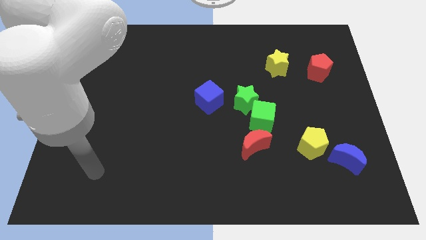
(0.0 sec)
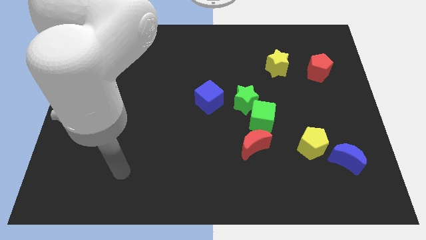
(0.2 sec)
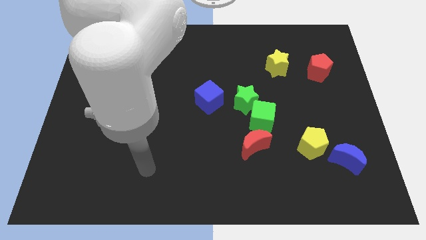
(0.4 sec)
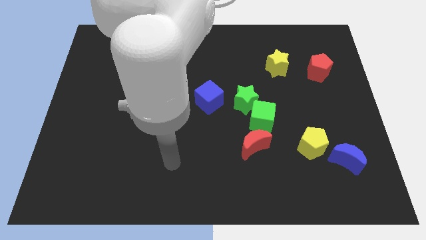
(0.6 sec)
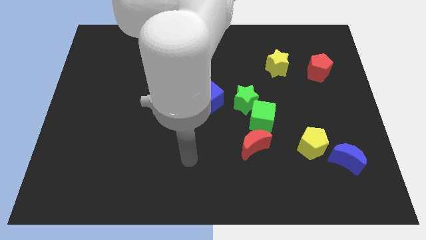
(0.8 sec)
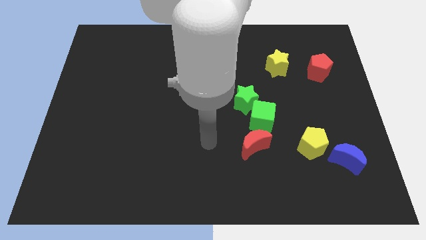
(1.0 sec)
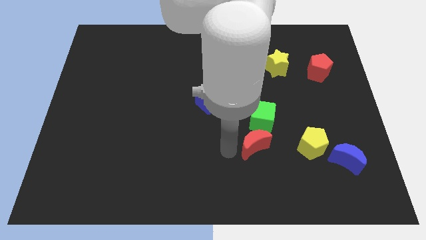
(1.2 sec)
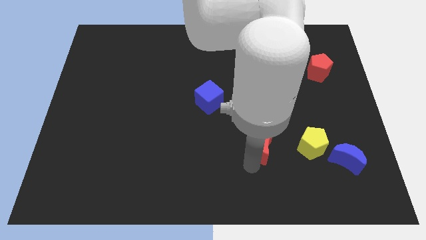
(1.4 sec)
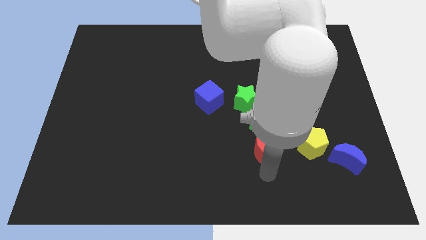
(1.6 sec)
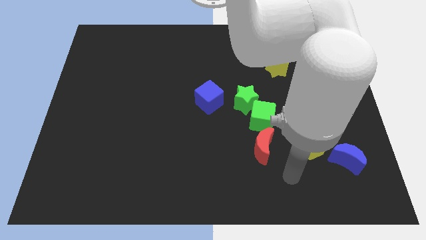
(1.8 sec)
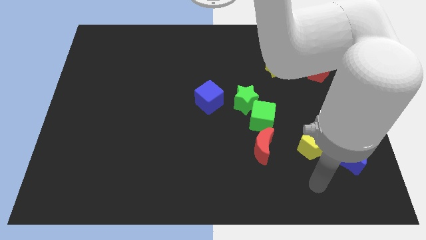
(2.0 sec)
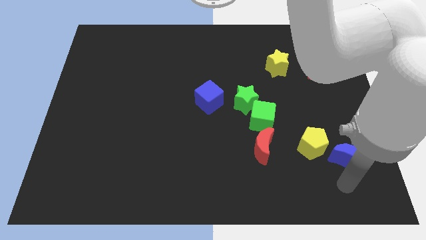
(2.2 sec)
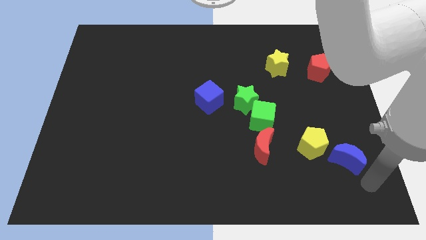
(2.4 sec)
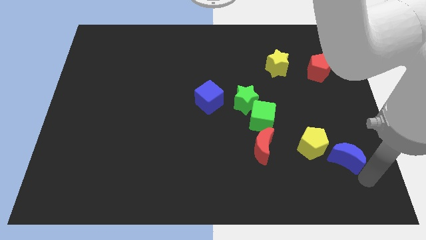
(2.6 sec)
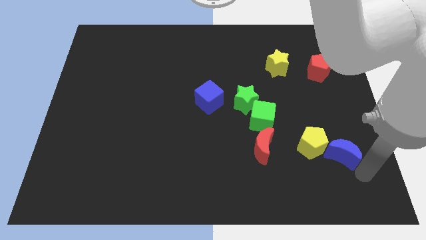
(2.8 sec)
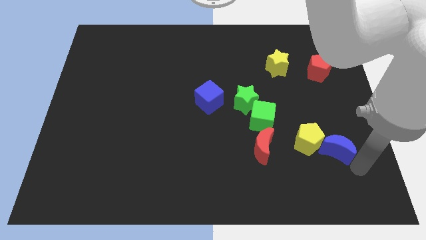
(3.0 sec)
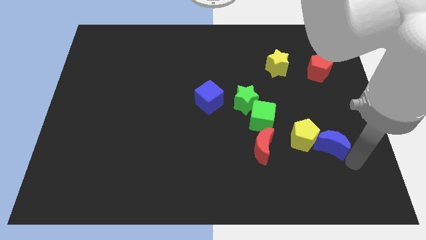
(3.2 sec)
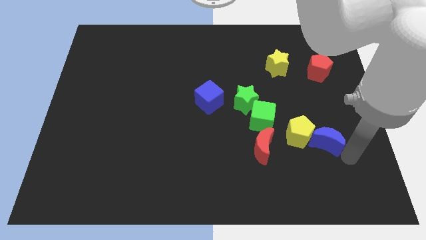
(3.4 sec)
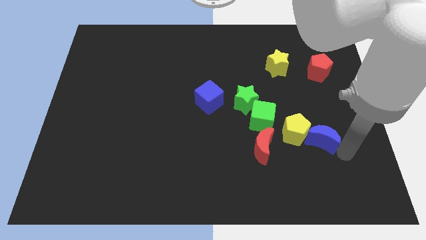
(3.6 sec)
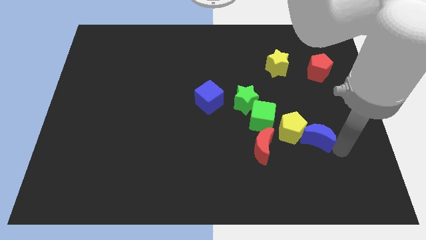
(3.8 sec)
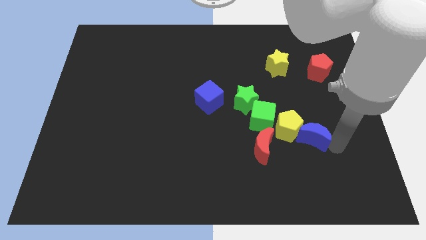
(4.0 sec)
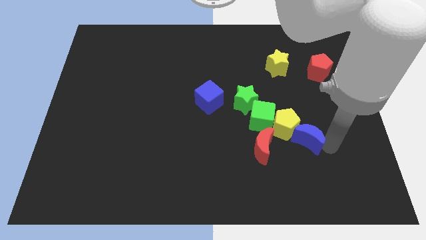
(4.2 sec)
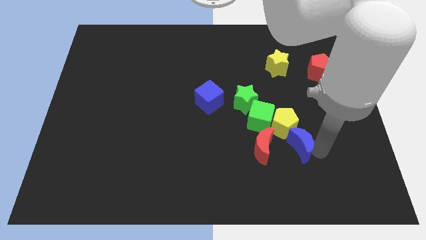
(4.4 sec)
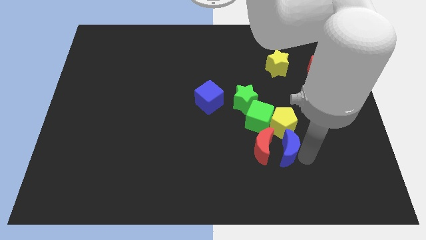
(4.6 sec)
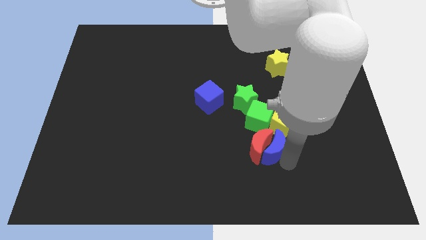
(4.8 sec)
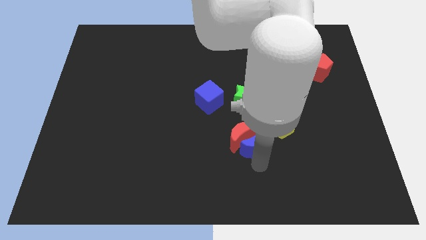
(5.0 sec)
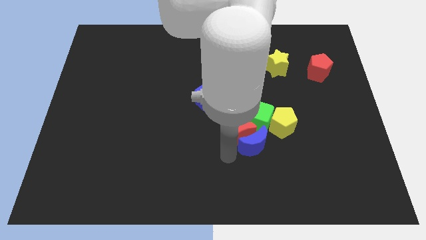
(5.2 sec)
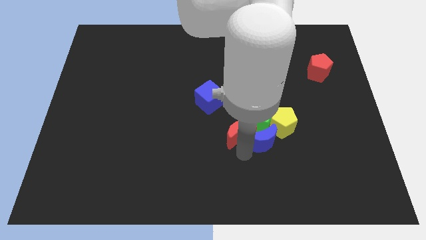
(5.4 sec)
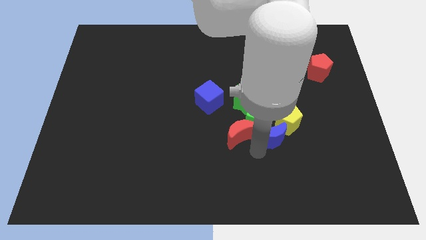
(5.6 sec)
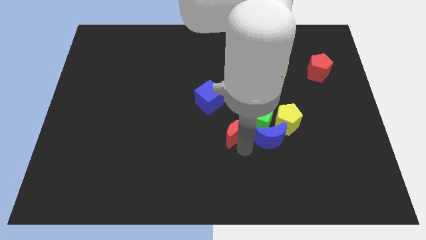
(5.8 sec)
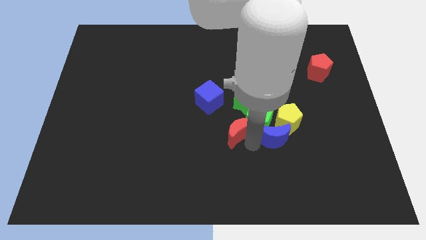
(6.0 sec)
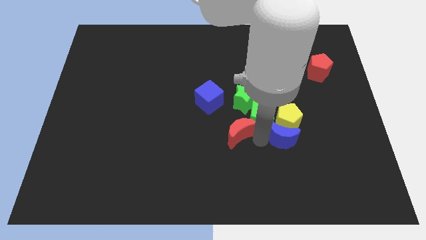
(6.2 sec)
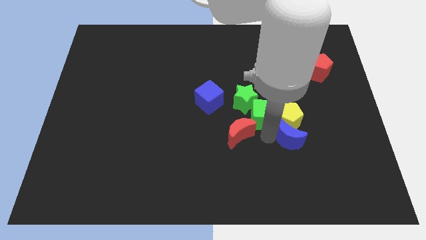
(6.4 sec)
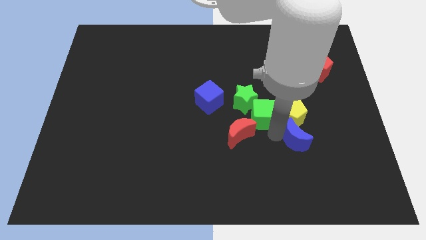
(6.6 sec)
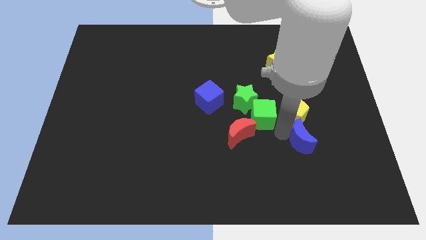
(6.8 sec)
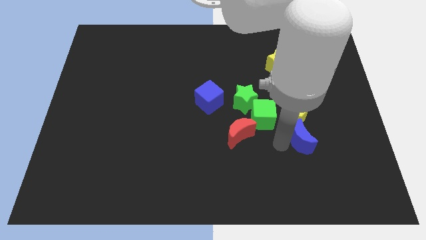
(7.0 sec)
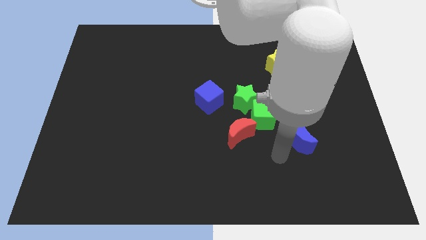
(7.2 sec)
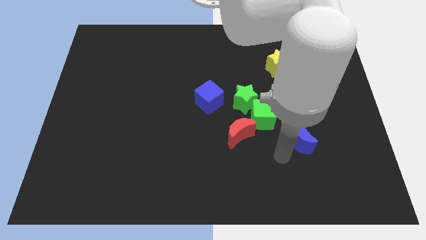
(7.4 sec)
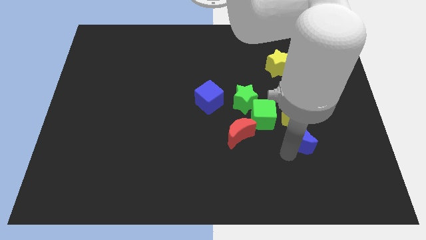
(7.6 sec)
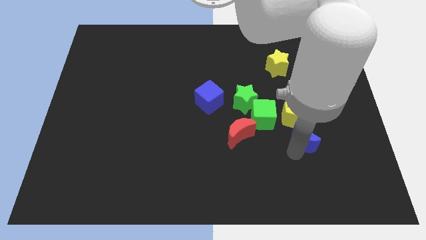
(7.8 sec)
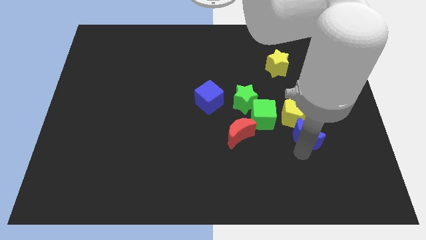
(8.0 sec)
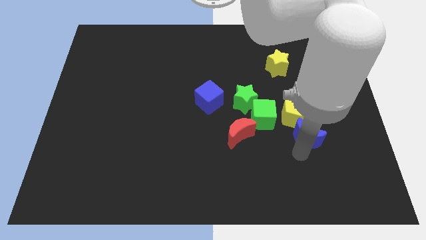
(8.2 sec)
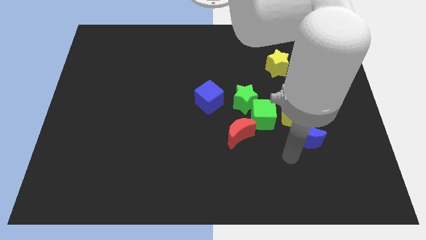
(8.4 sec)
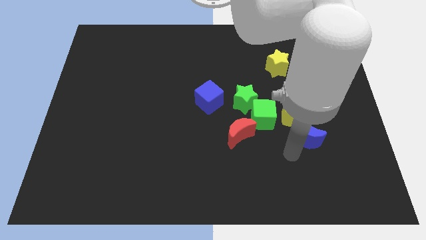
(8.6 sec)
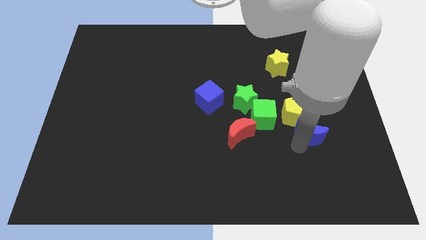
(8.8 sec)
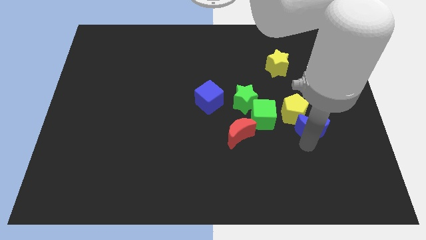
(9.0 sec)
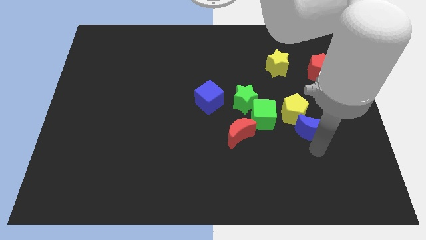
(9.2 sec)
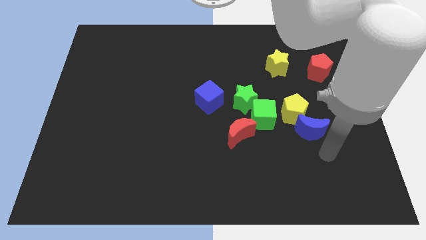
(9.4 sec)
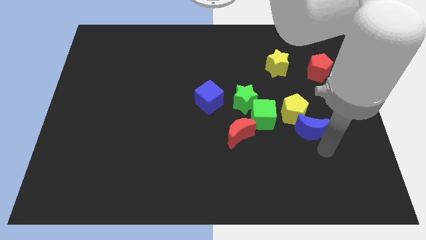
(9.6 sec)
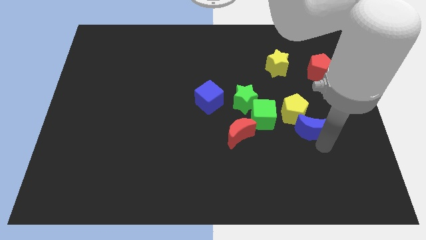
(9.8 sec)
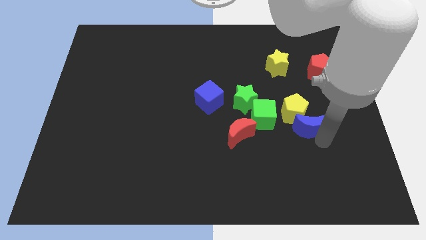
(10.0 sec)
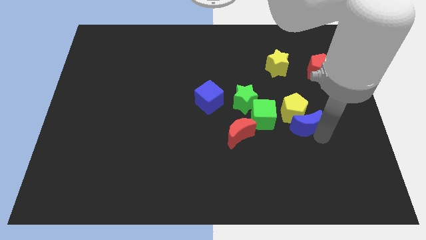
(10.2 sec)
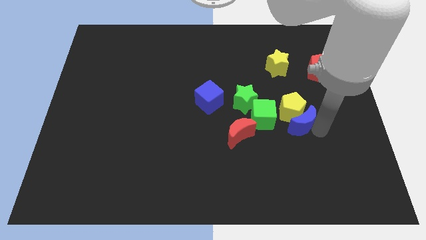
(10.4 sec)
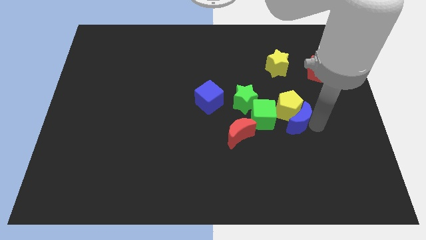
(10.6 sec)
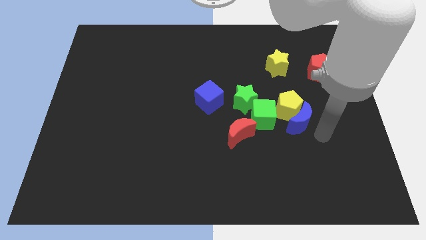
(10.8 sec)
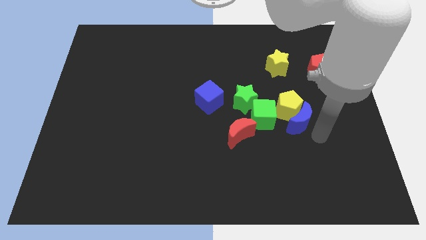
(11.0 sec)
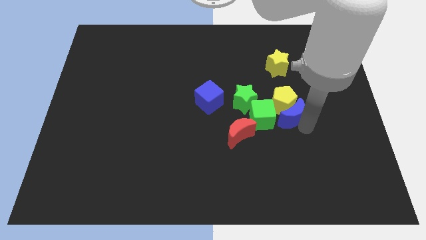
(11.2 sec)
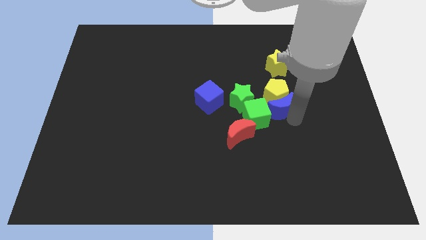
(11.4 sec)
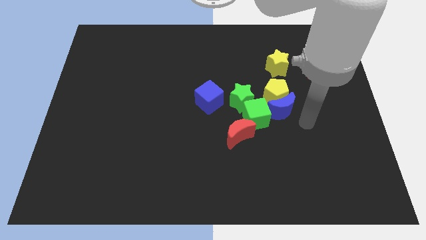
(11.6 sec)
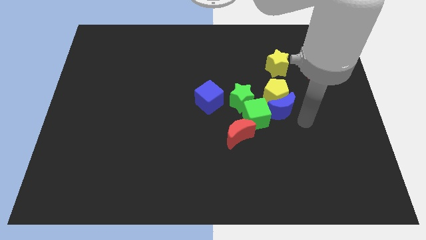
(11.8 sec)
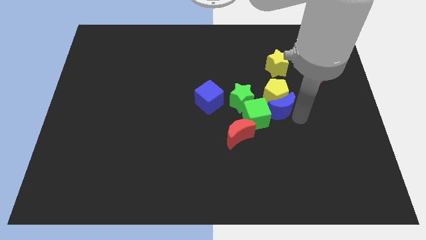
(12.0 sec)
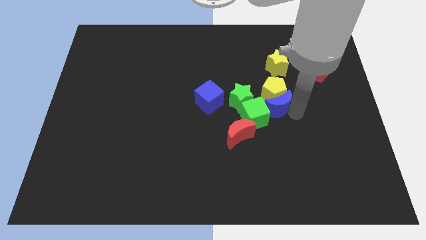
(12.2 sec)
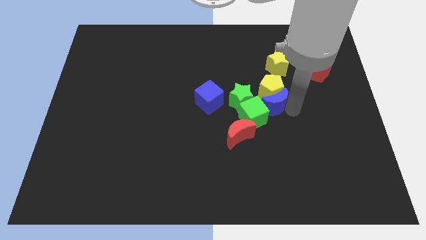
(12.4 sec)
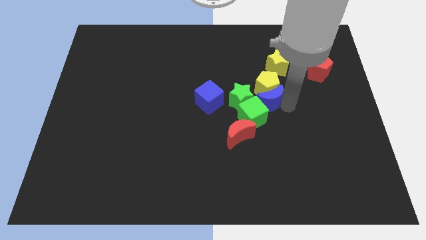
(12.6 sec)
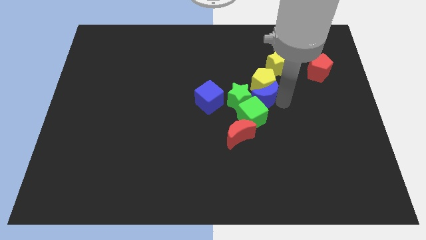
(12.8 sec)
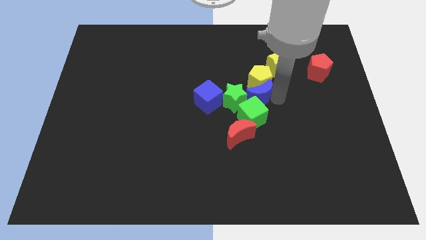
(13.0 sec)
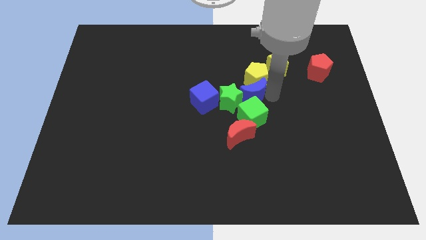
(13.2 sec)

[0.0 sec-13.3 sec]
push the blue moon to the green star
